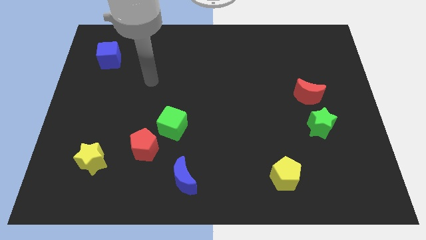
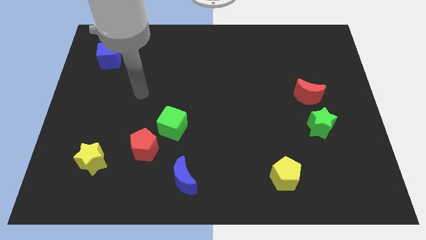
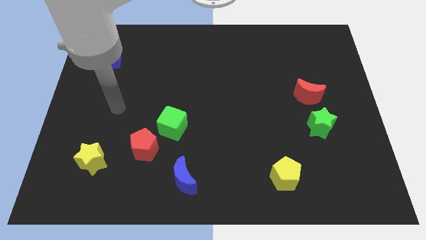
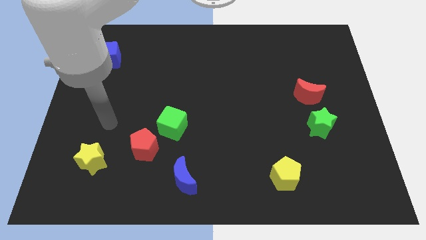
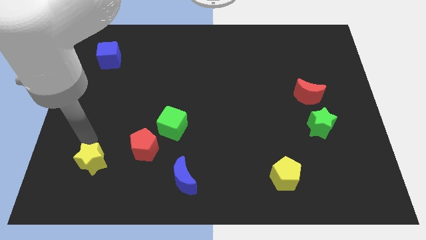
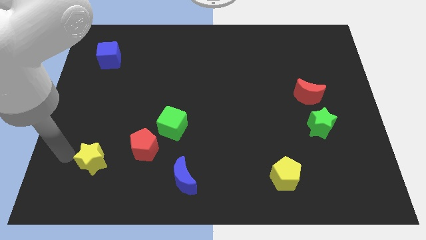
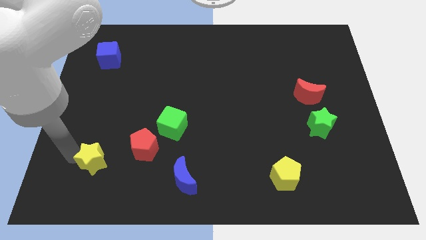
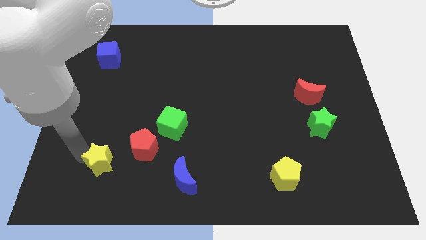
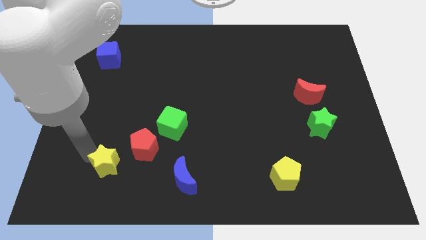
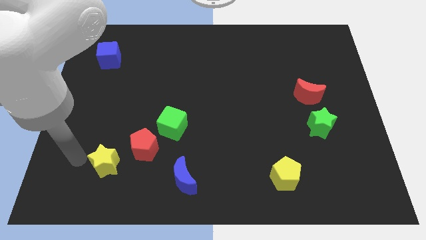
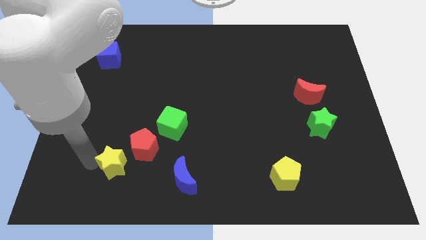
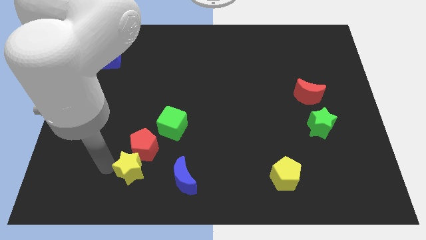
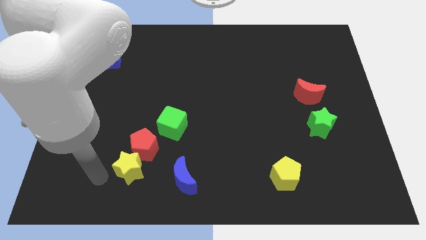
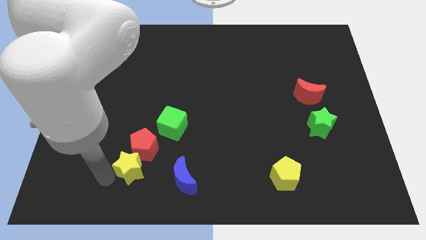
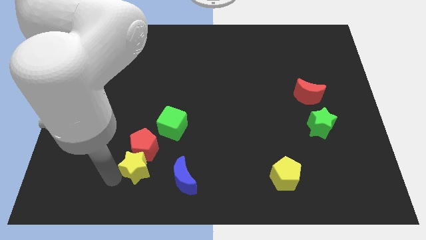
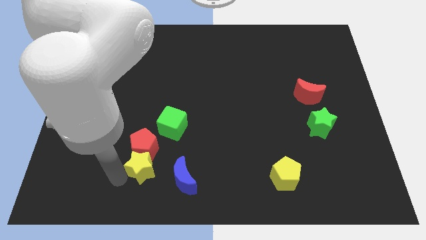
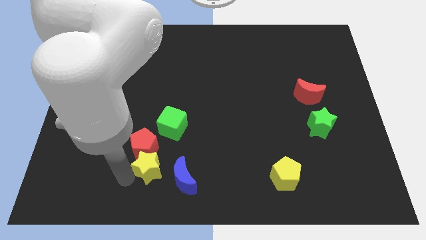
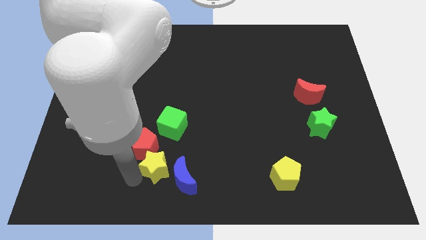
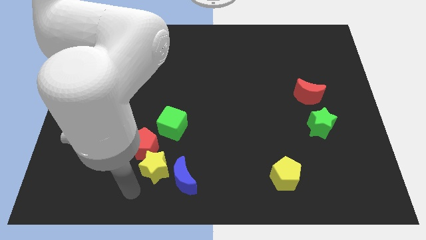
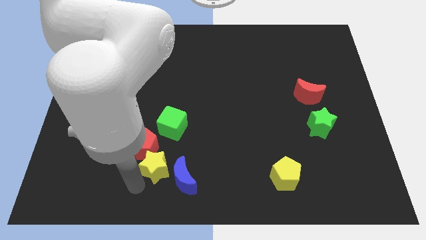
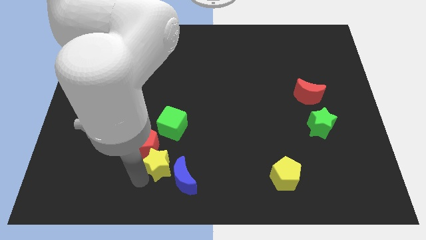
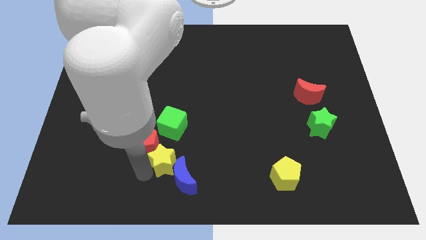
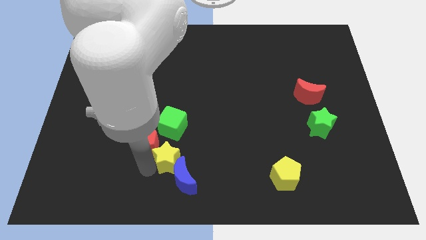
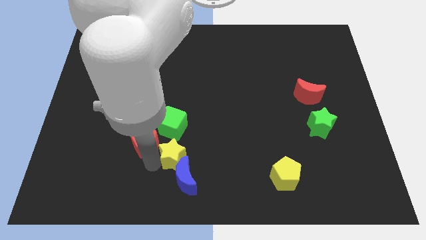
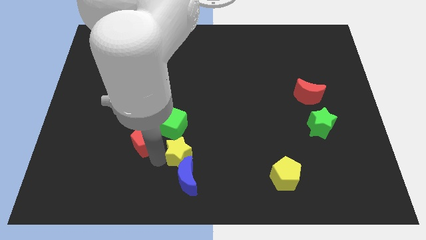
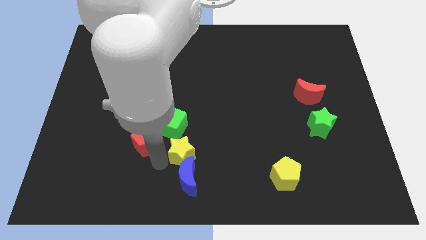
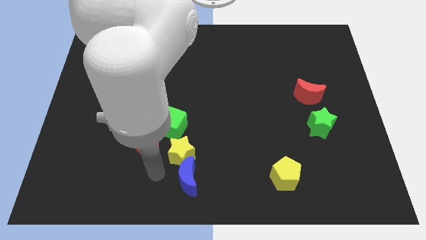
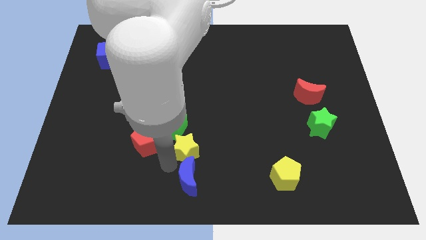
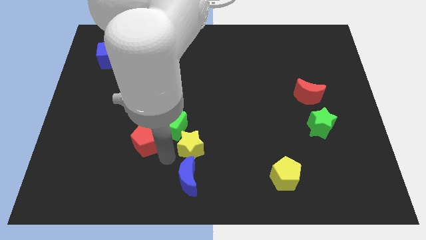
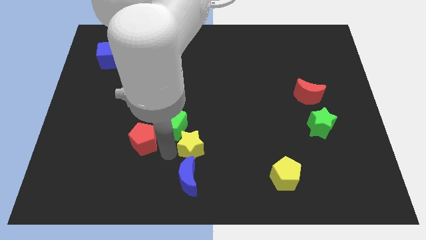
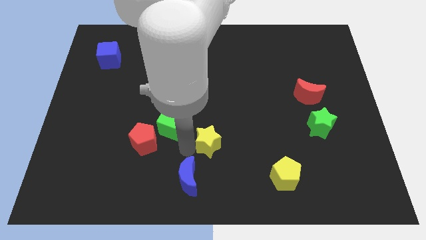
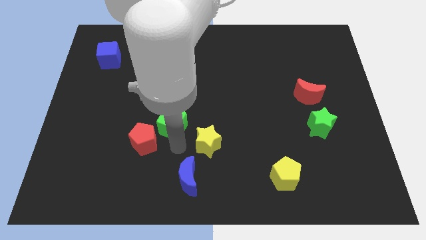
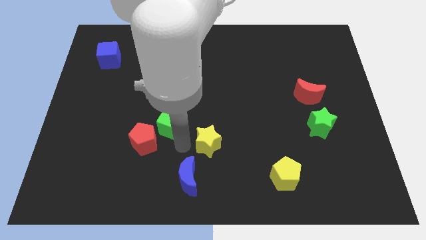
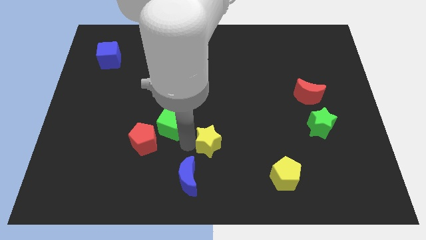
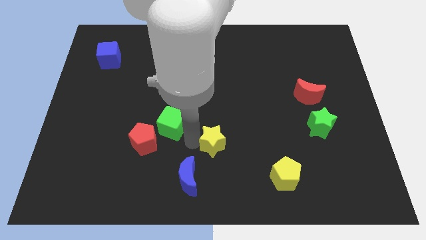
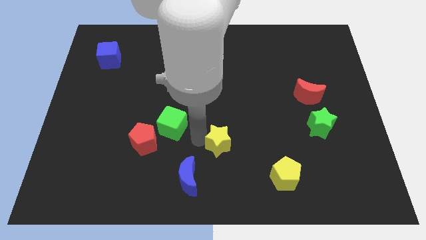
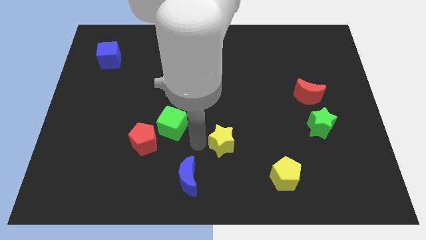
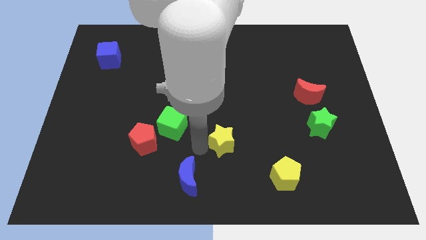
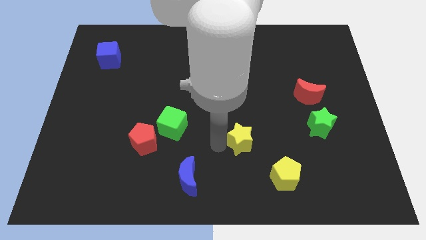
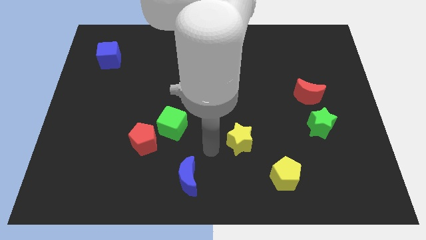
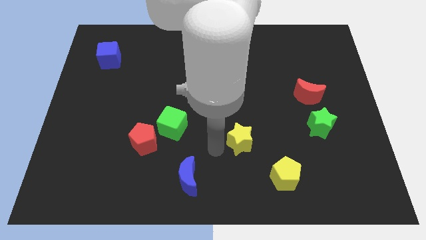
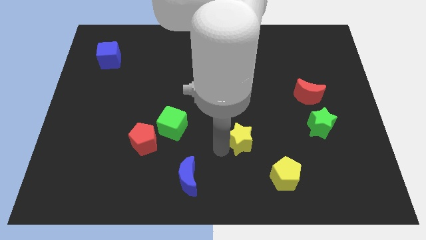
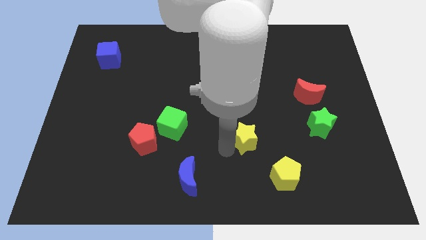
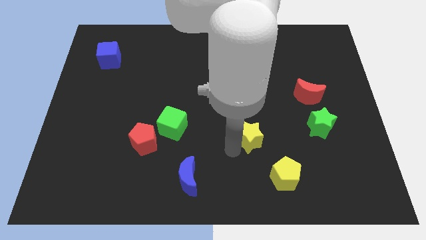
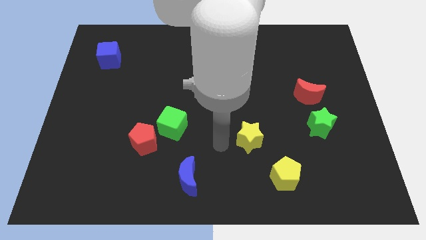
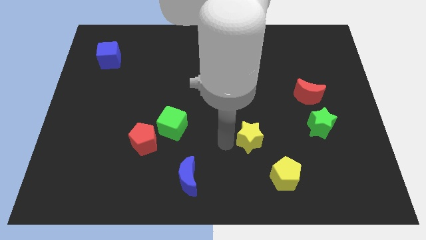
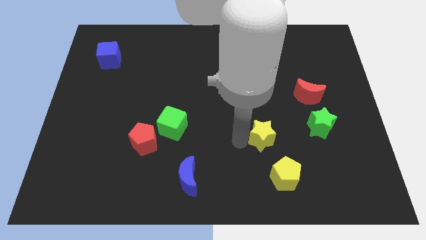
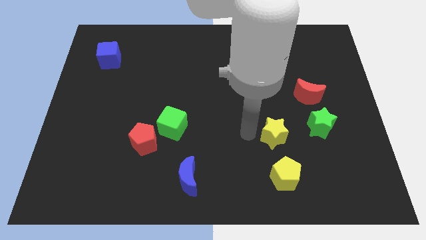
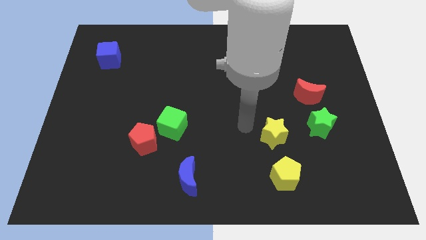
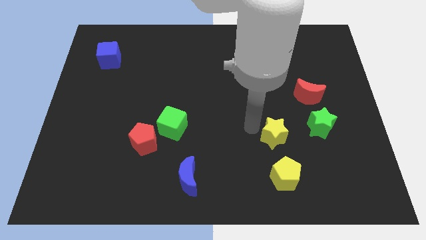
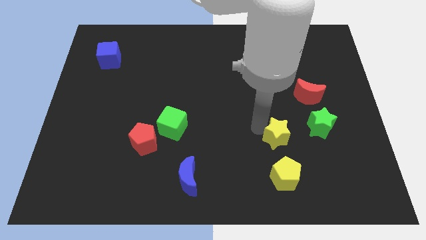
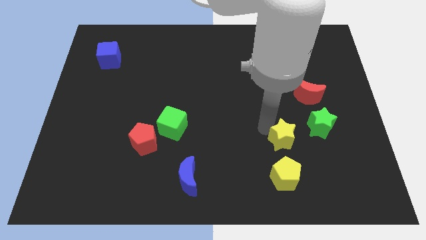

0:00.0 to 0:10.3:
slide the yellow star to the bottom left of the green star

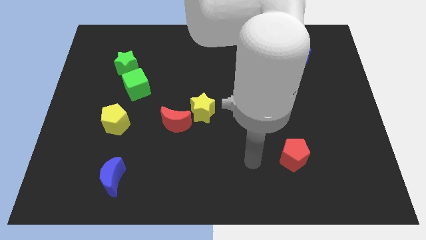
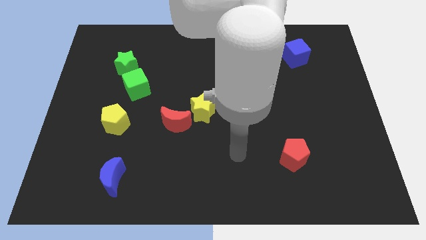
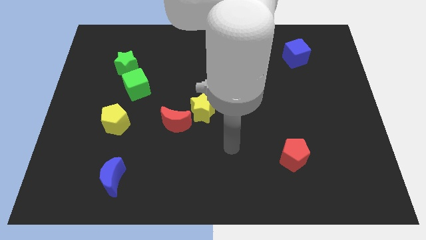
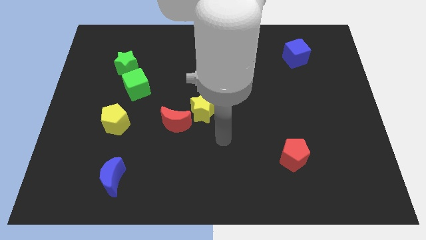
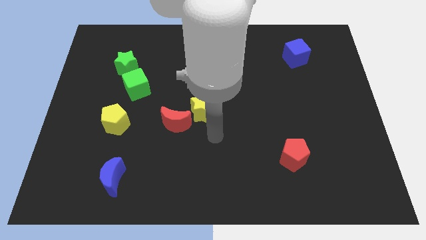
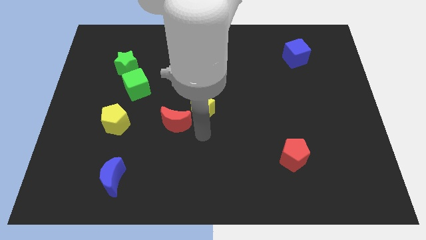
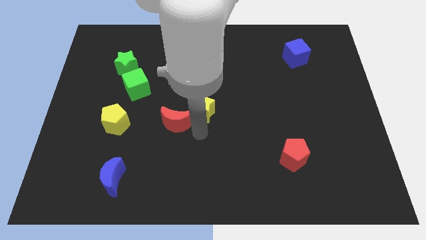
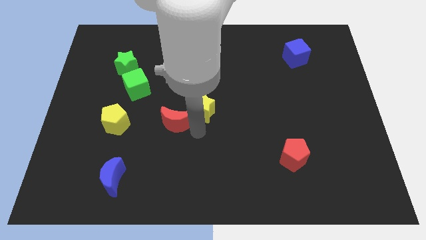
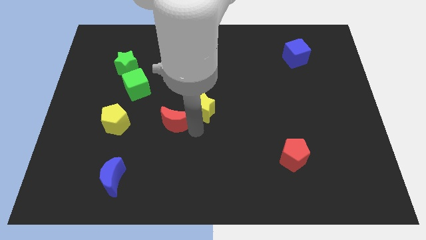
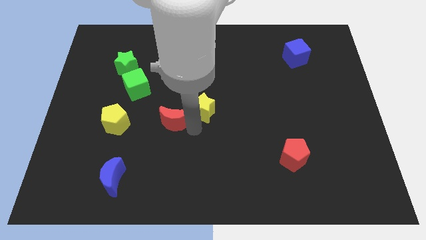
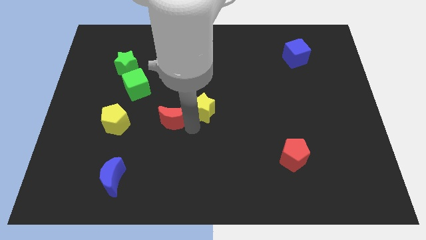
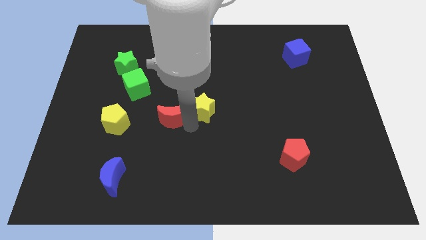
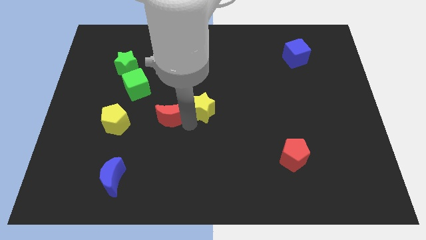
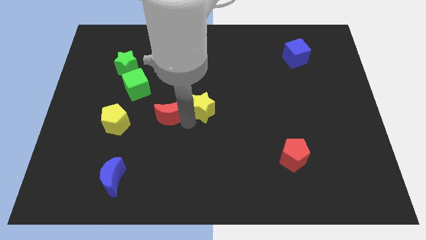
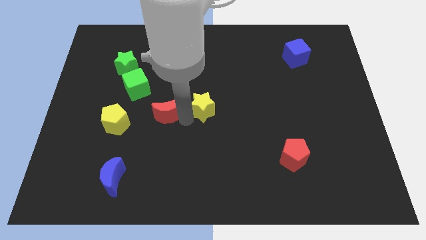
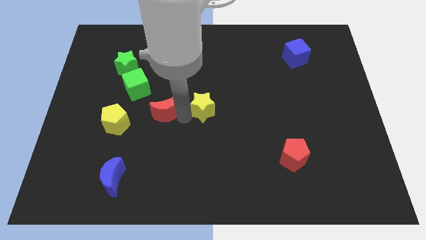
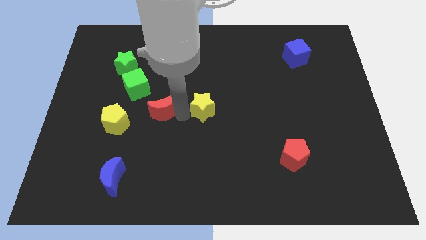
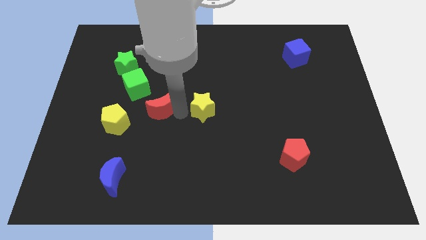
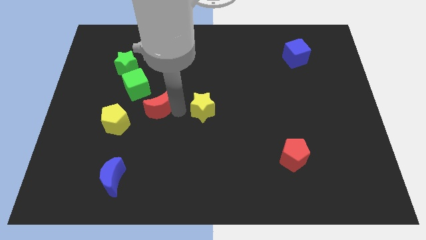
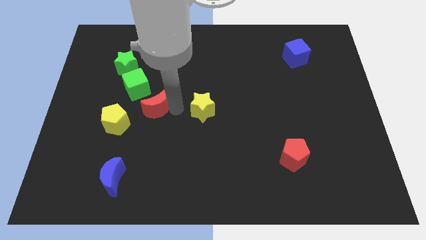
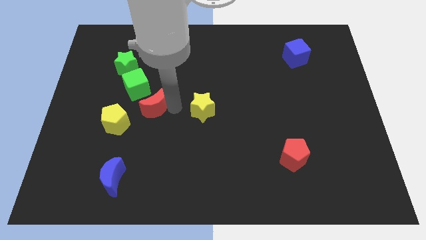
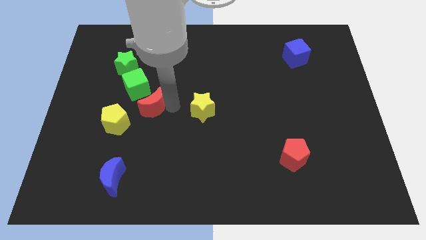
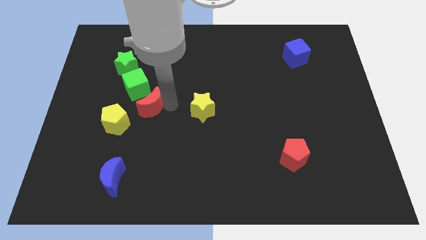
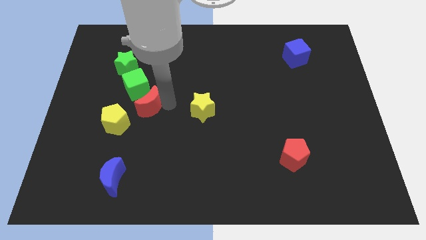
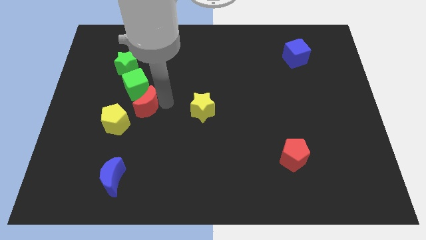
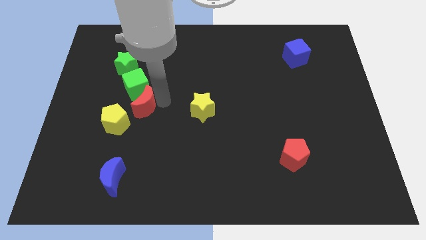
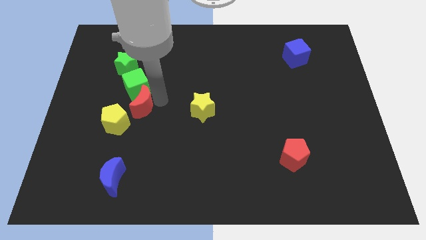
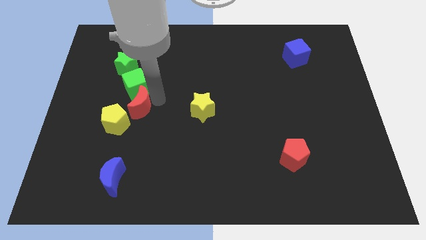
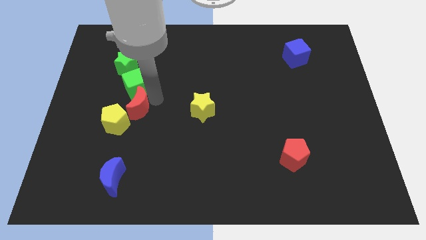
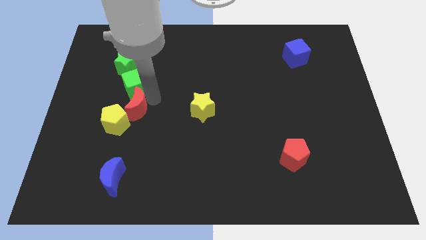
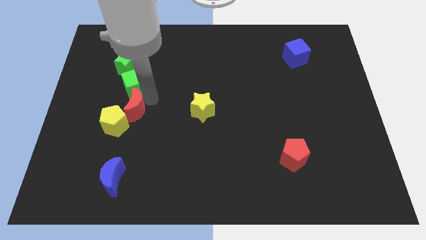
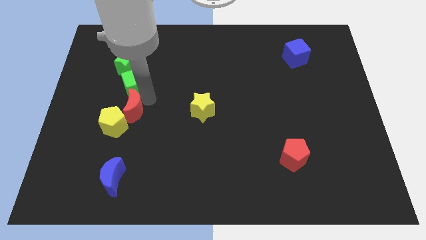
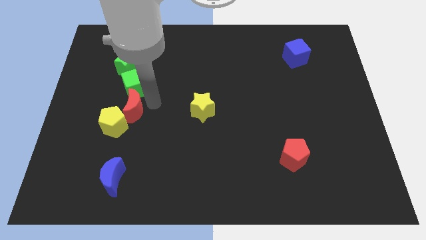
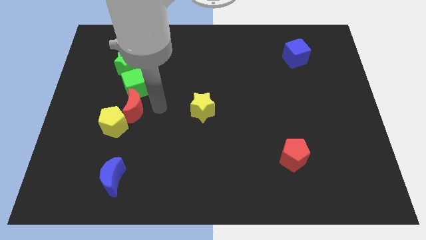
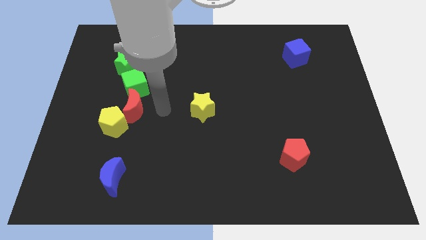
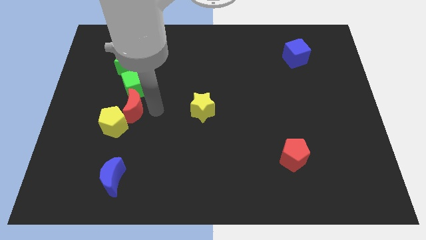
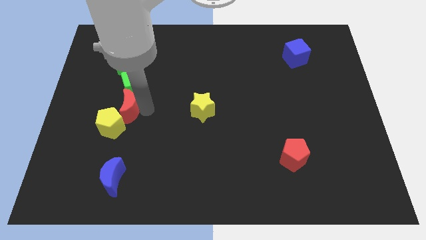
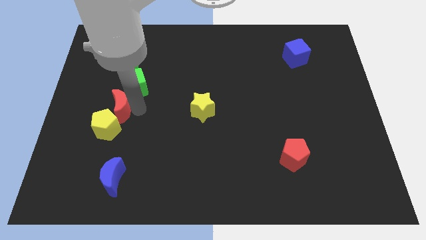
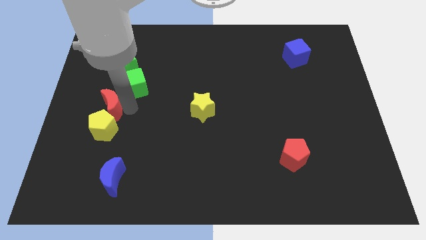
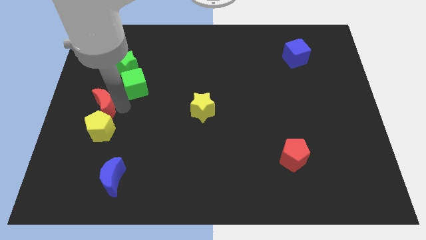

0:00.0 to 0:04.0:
move the red moon to the top left of the yellow pentagon
